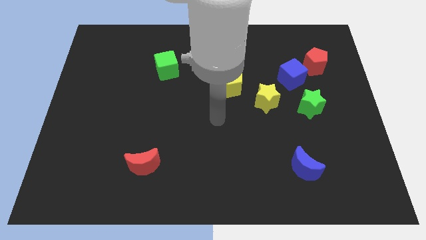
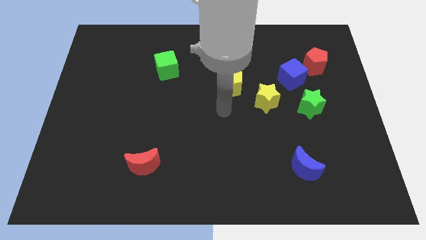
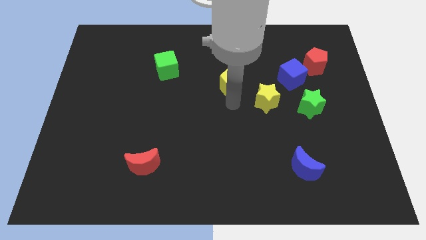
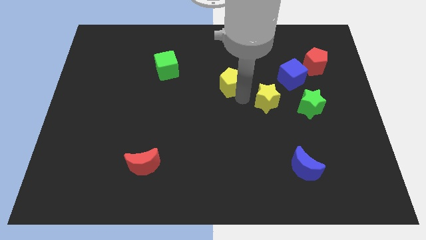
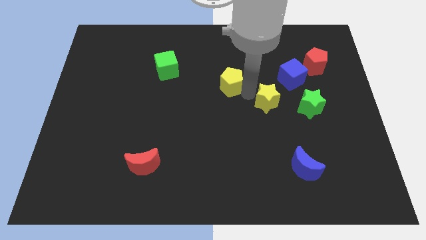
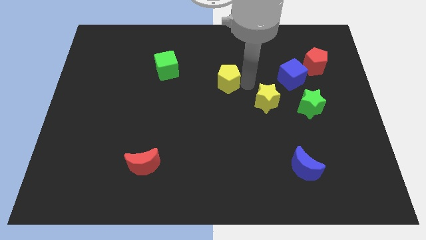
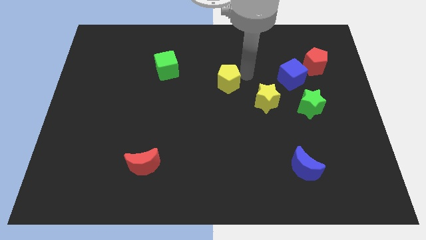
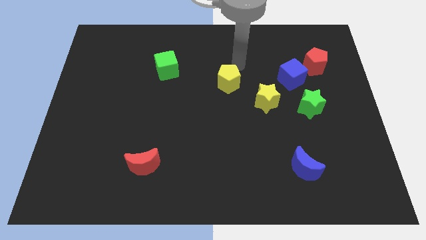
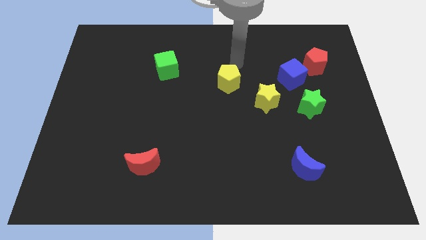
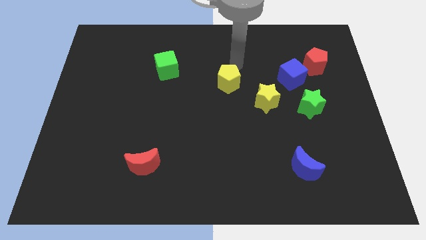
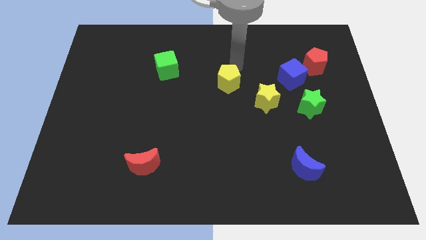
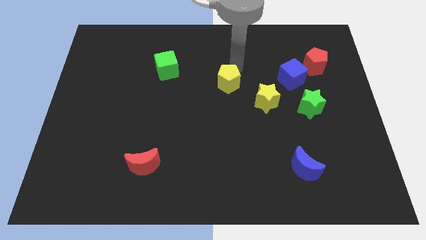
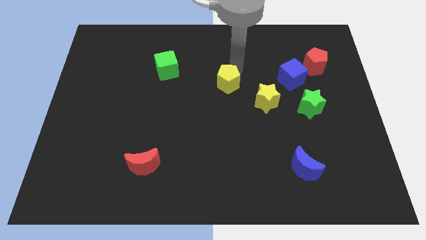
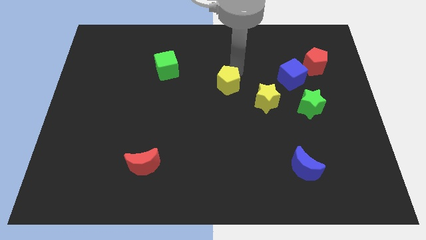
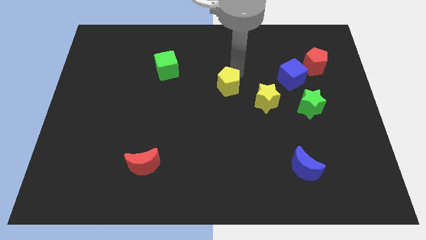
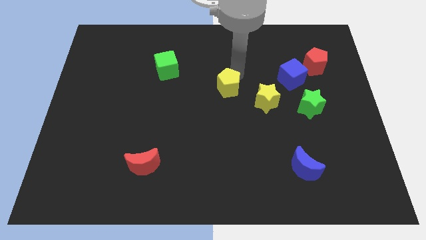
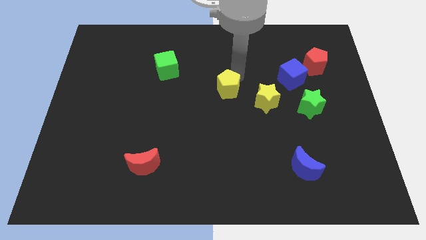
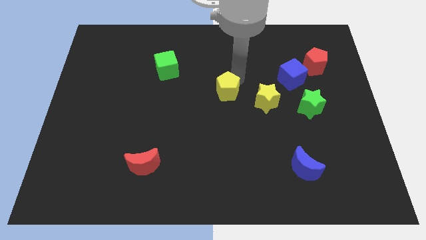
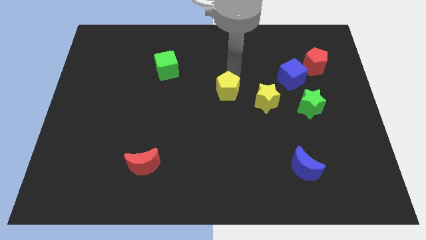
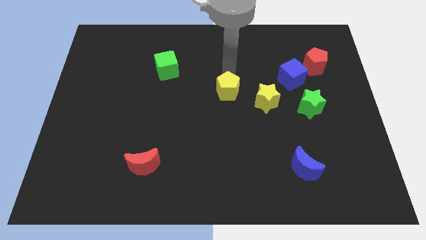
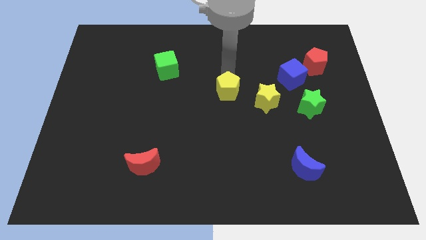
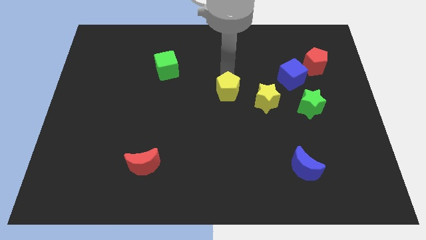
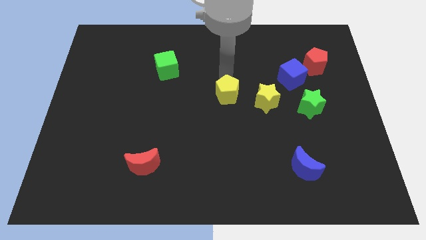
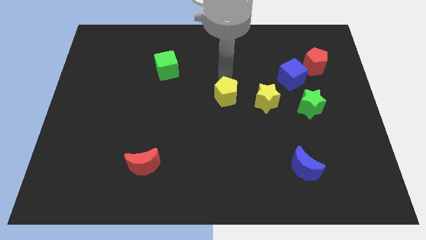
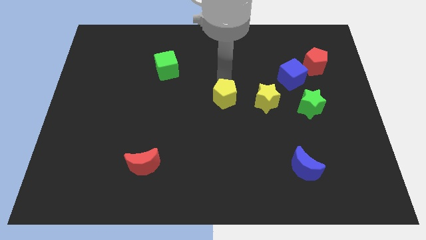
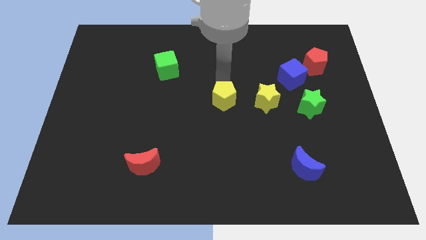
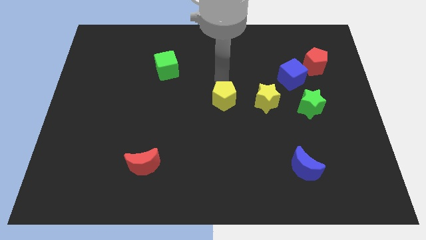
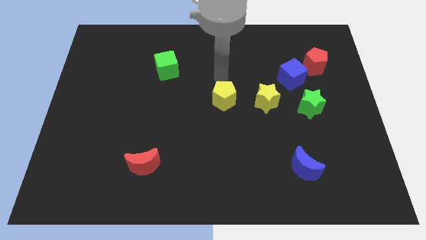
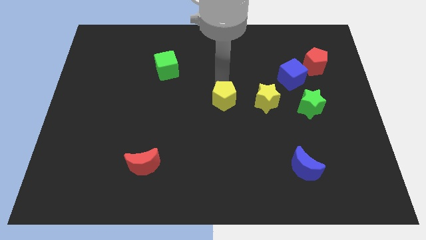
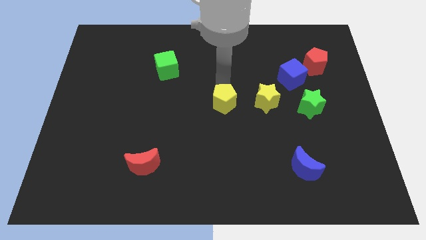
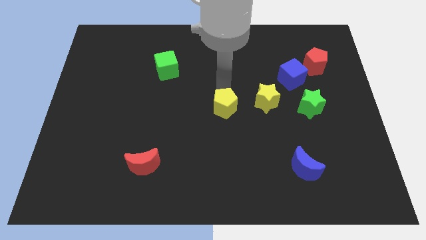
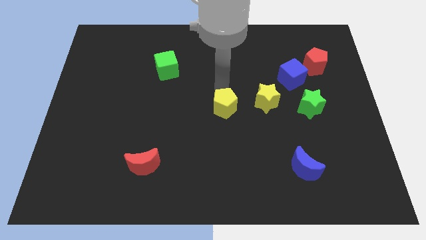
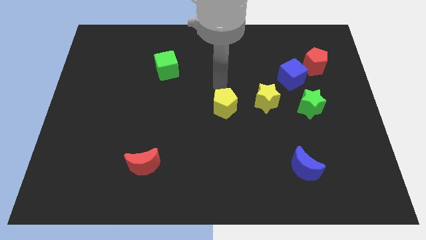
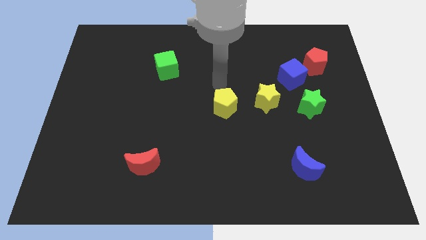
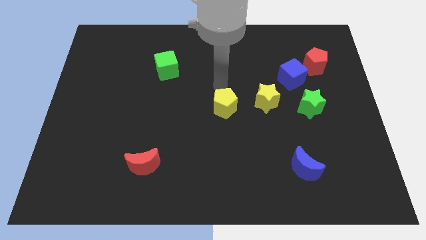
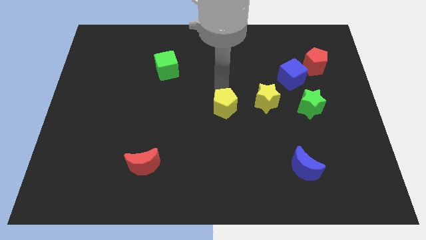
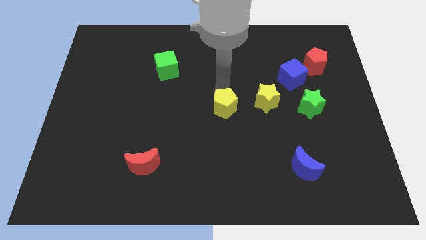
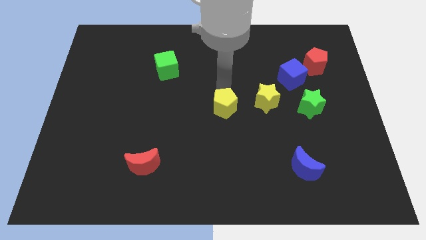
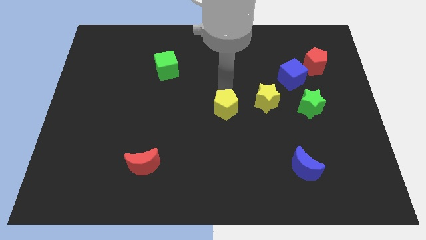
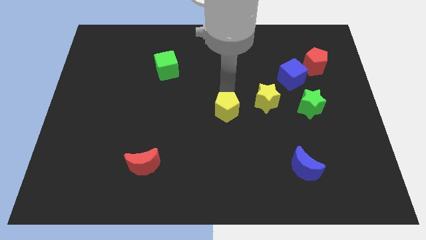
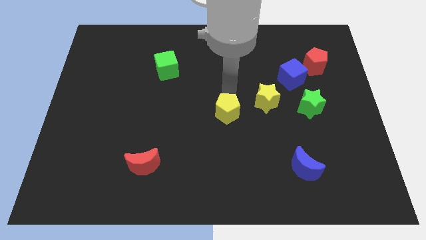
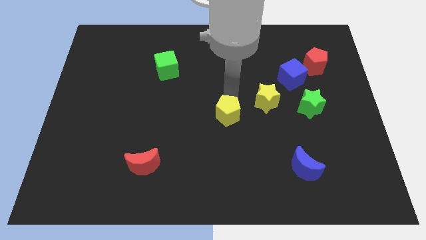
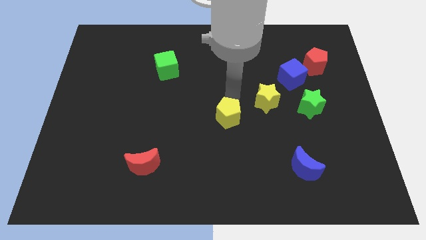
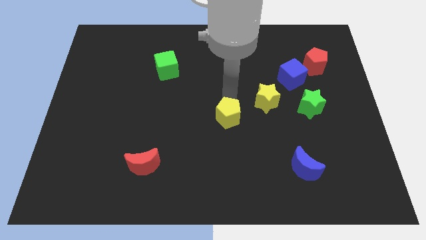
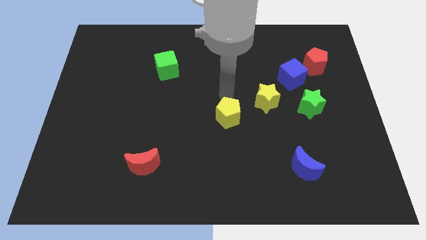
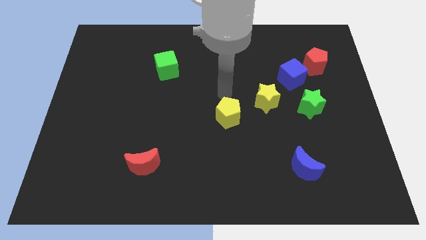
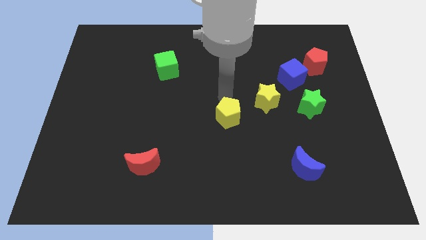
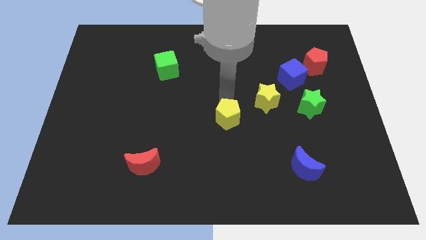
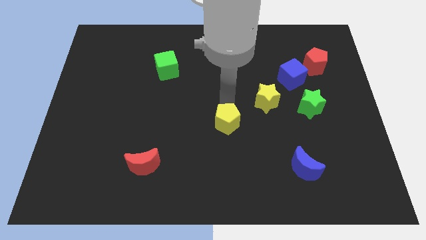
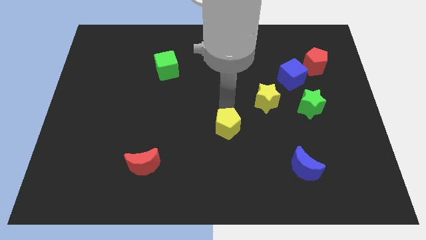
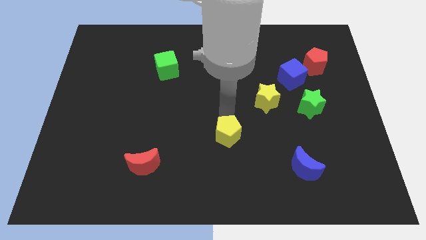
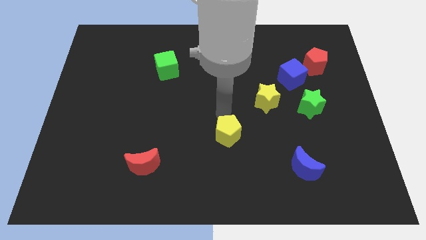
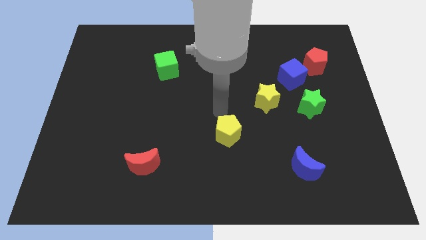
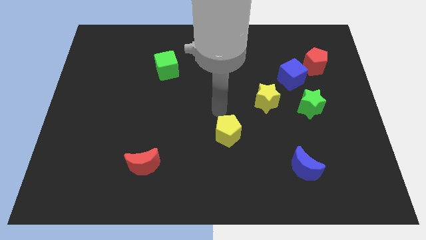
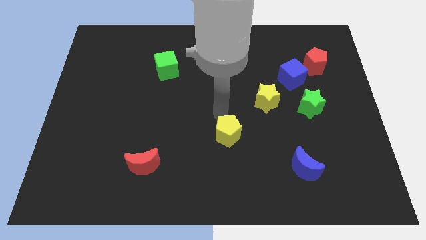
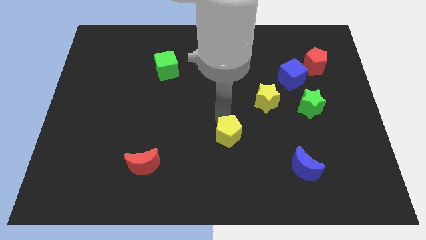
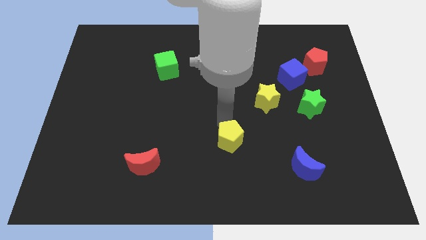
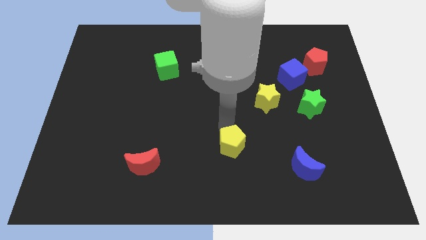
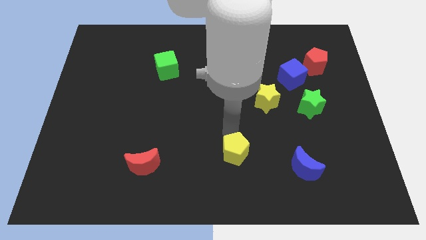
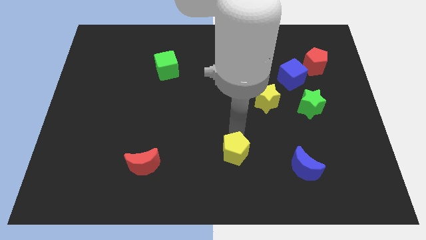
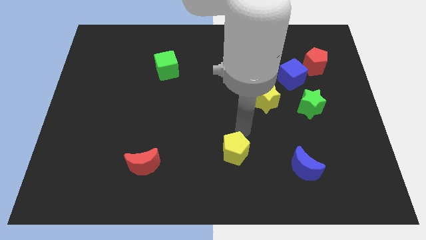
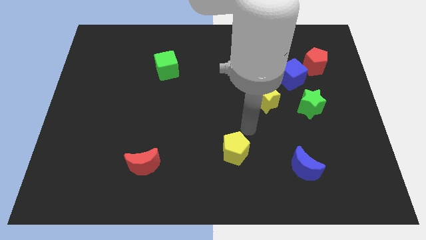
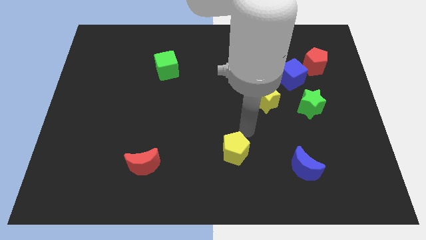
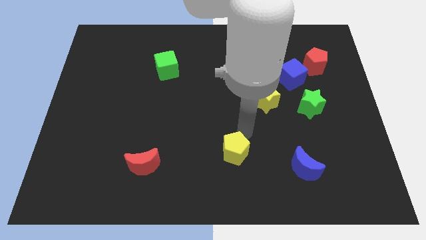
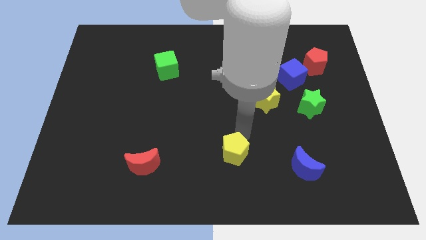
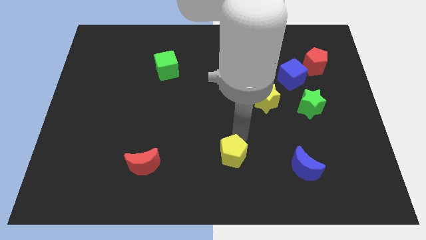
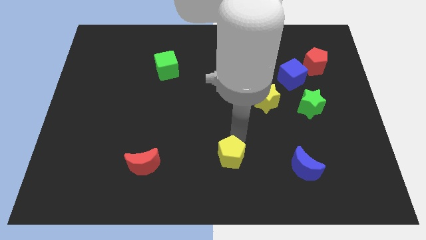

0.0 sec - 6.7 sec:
move the yellow pentagon to the bottom
